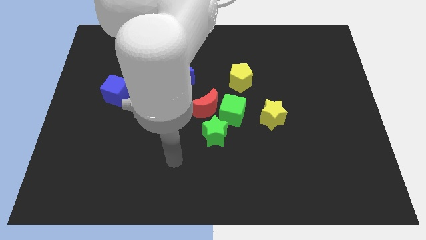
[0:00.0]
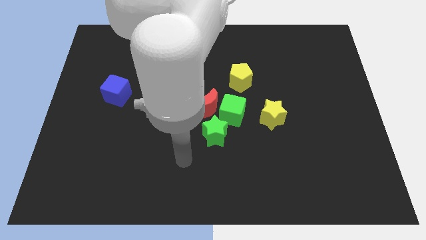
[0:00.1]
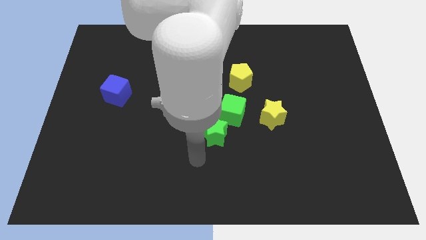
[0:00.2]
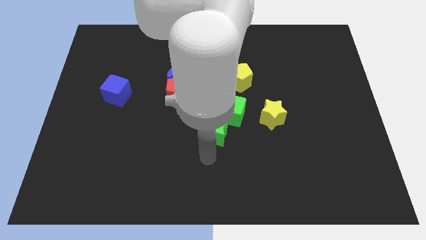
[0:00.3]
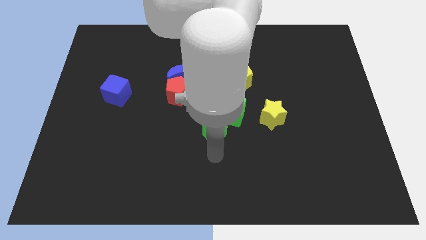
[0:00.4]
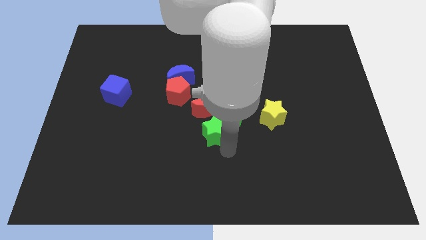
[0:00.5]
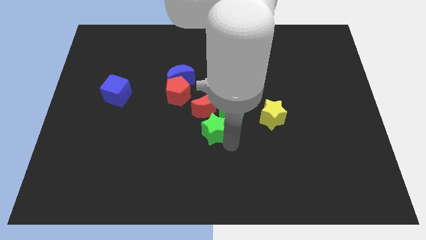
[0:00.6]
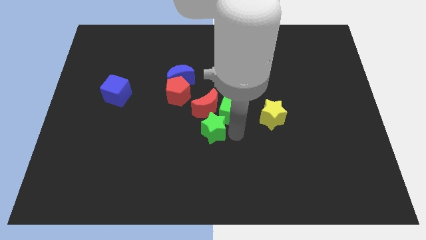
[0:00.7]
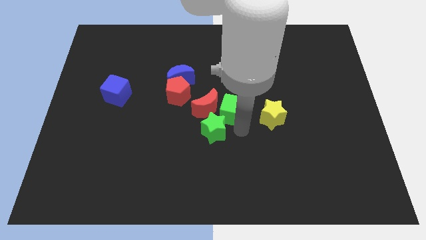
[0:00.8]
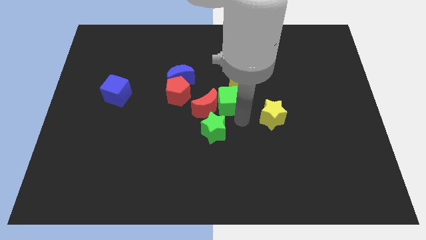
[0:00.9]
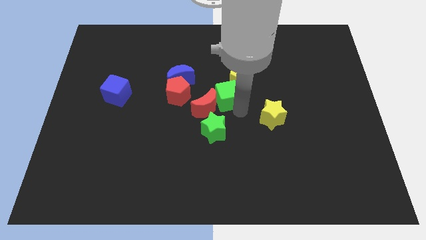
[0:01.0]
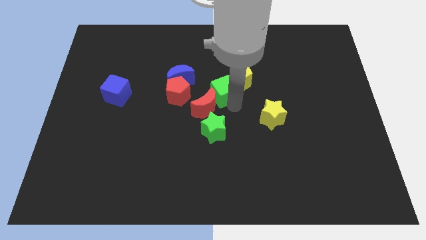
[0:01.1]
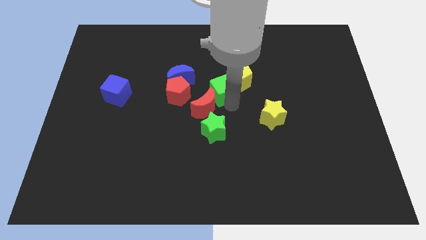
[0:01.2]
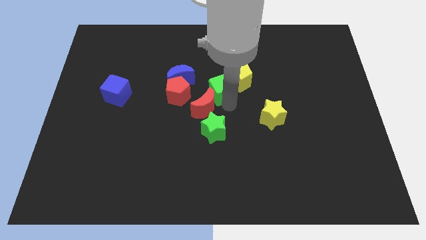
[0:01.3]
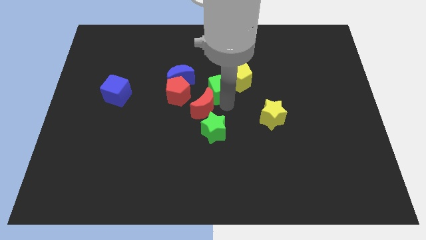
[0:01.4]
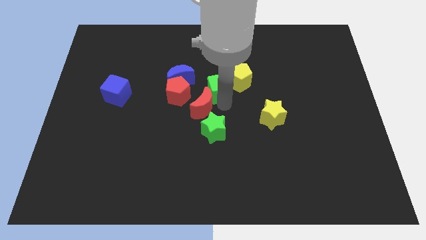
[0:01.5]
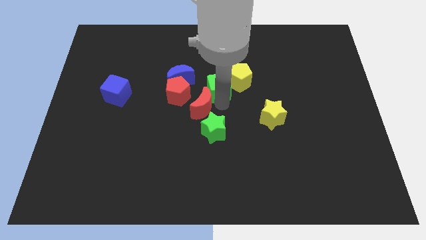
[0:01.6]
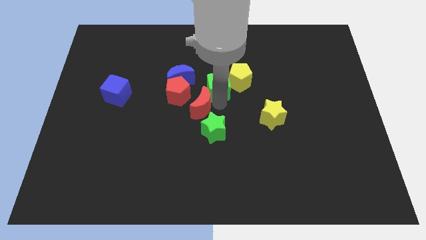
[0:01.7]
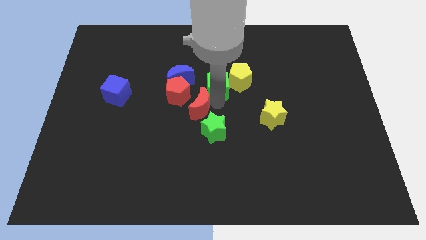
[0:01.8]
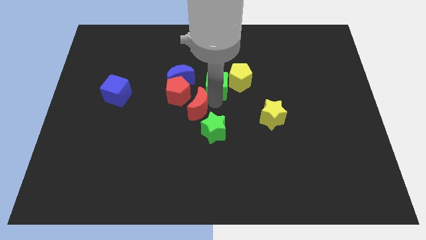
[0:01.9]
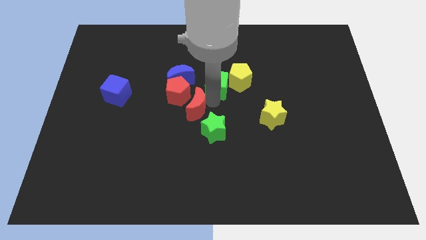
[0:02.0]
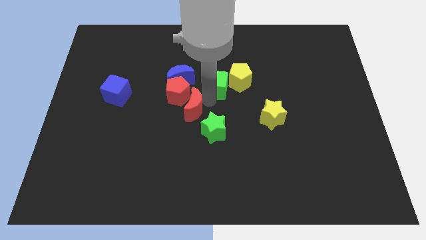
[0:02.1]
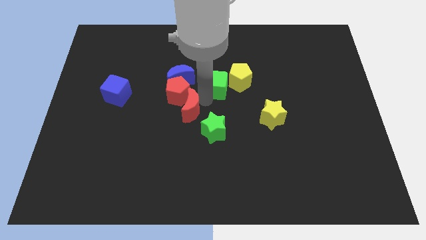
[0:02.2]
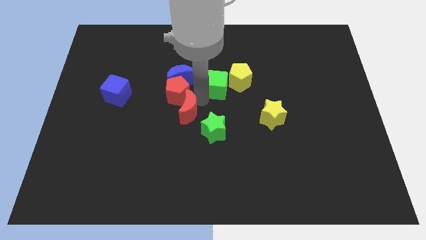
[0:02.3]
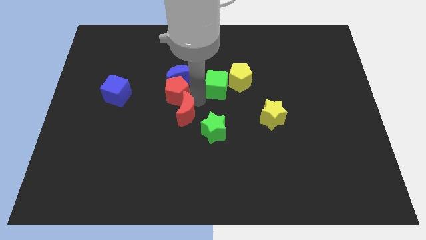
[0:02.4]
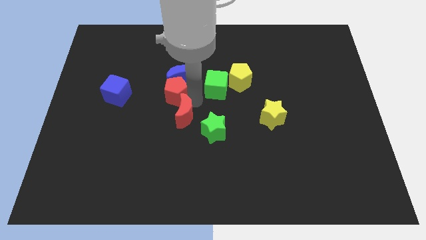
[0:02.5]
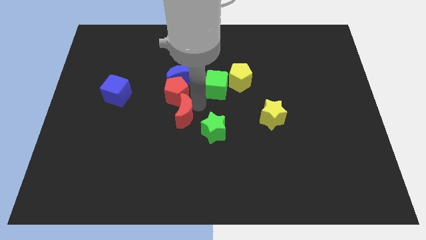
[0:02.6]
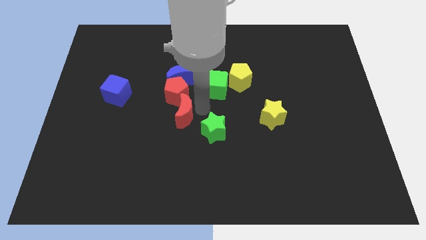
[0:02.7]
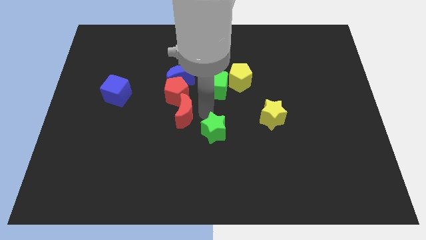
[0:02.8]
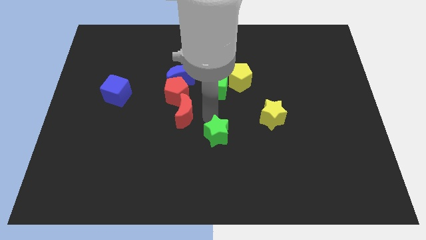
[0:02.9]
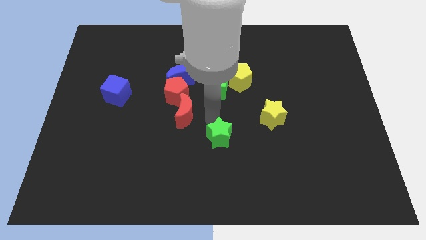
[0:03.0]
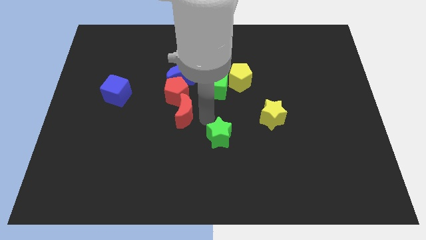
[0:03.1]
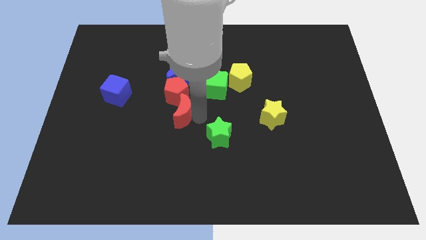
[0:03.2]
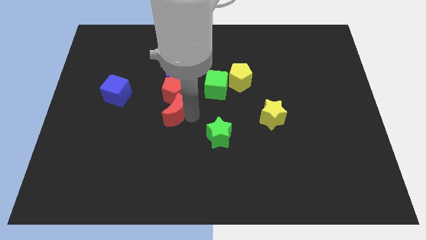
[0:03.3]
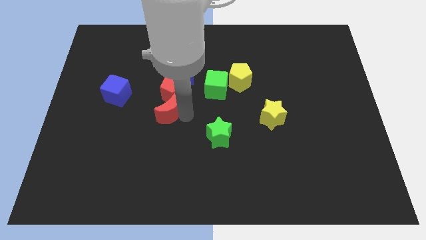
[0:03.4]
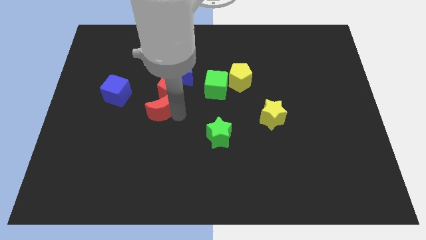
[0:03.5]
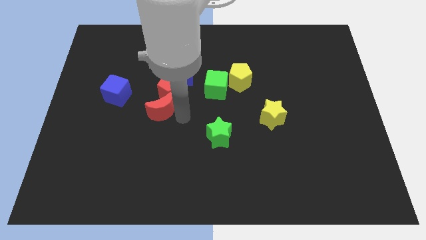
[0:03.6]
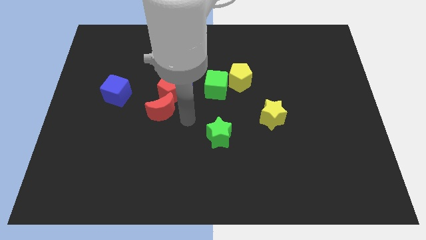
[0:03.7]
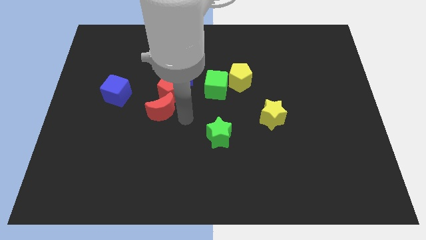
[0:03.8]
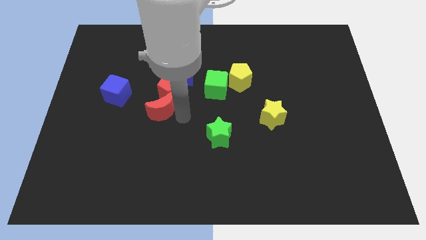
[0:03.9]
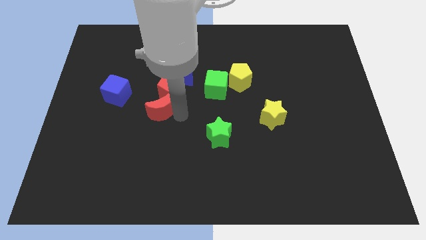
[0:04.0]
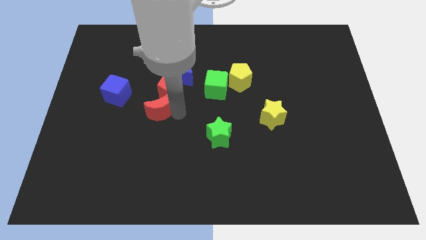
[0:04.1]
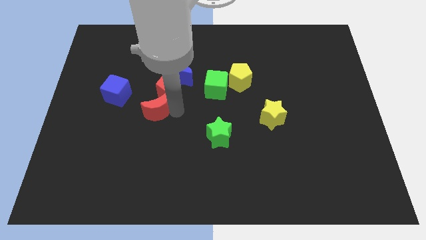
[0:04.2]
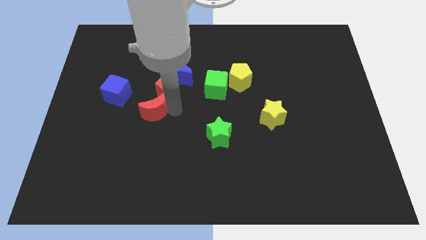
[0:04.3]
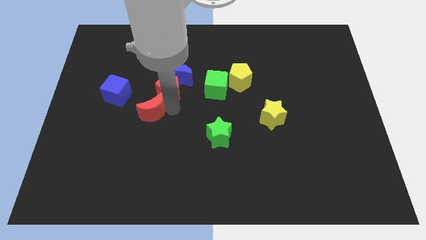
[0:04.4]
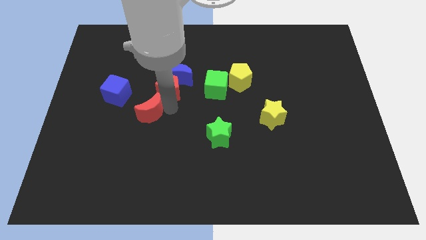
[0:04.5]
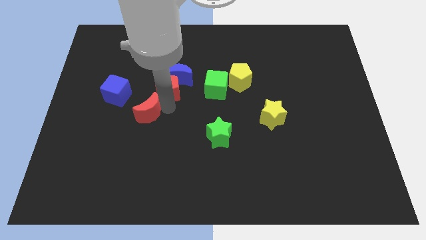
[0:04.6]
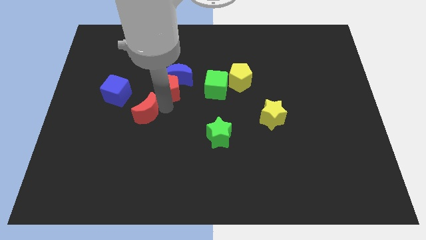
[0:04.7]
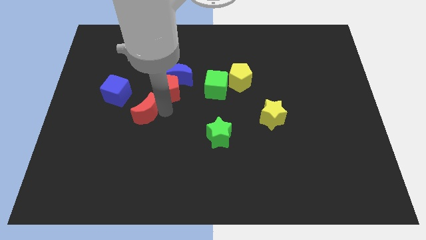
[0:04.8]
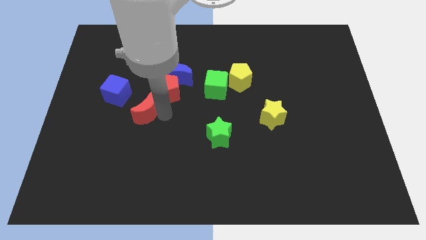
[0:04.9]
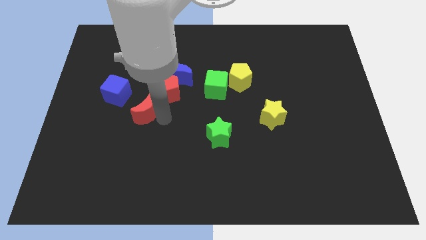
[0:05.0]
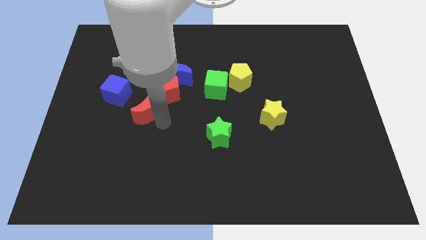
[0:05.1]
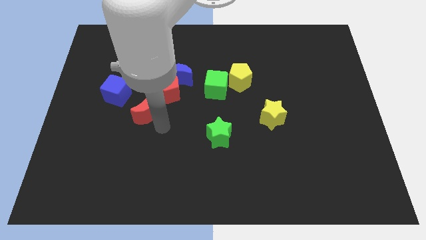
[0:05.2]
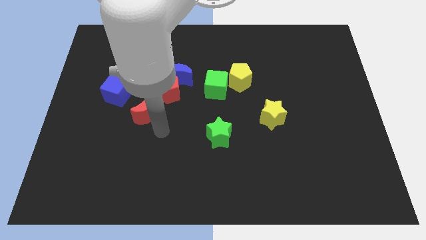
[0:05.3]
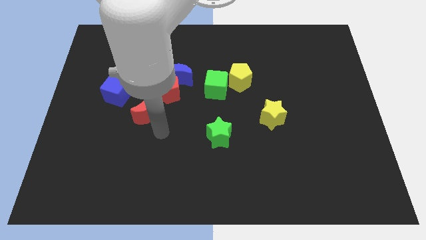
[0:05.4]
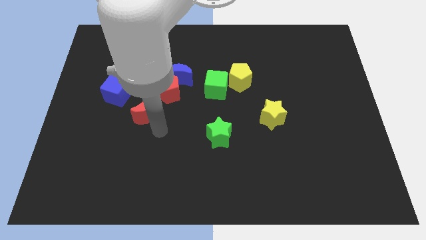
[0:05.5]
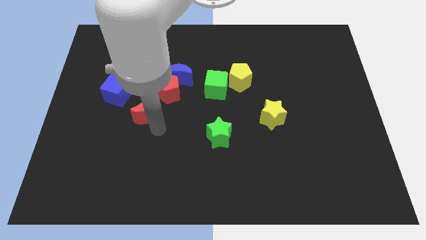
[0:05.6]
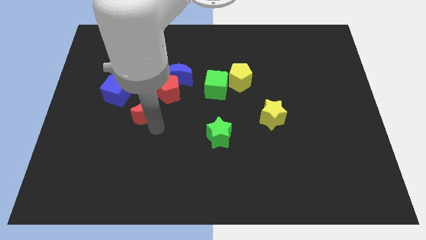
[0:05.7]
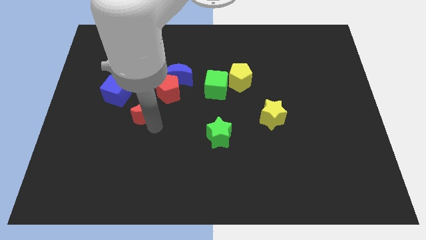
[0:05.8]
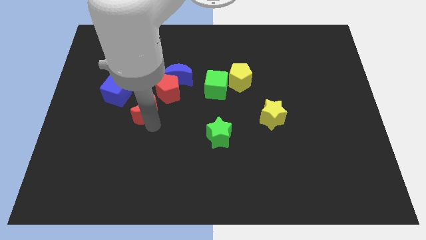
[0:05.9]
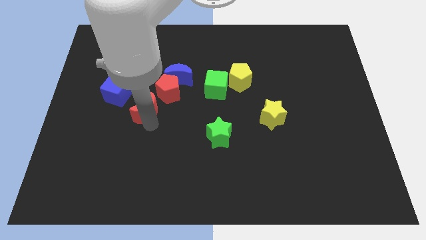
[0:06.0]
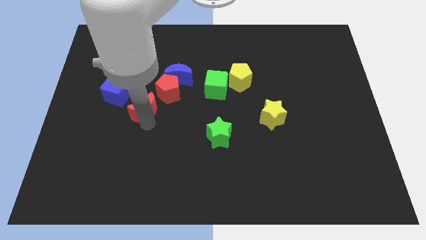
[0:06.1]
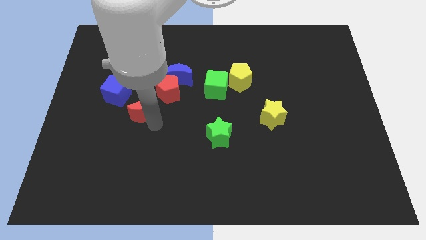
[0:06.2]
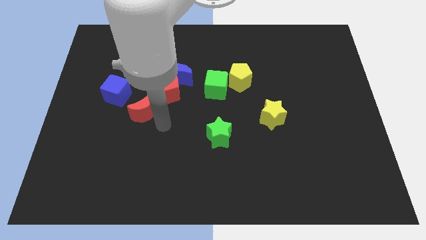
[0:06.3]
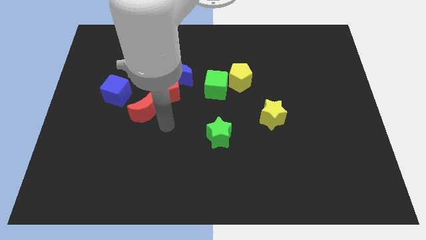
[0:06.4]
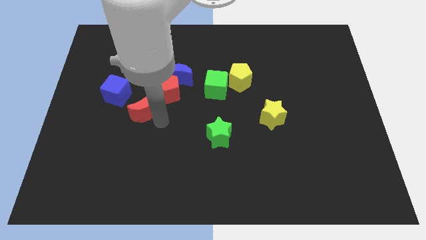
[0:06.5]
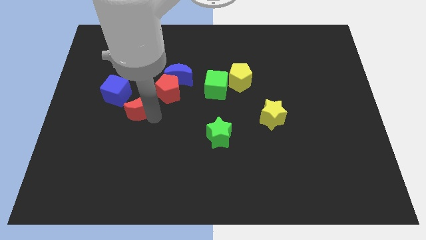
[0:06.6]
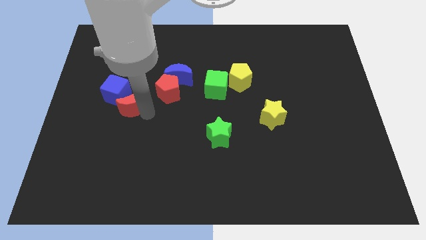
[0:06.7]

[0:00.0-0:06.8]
move the red moon next to the blue cube
